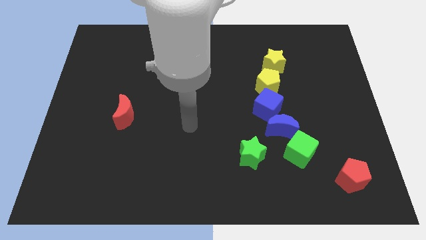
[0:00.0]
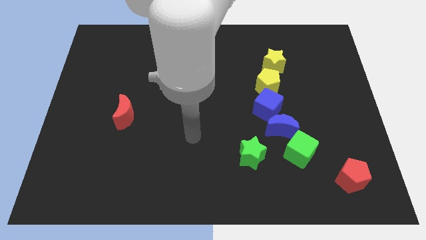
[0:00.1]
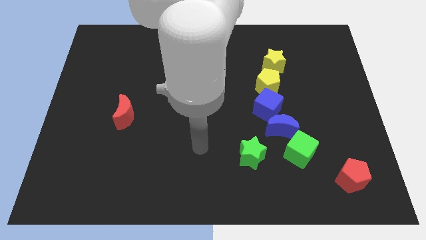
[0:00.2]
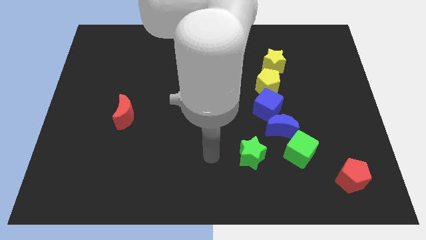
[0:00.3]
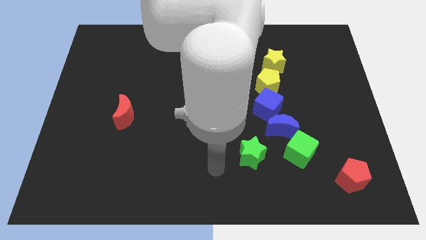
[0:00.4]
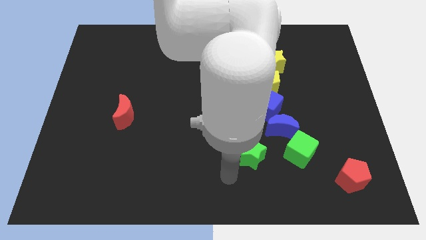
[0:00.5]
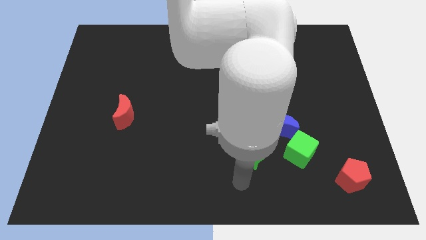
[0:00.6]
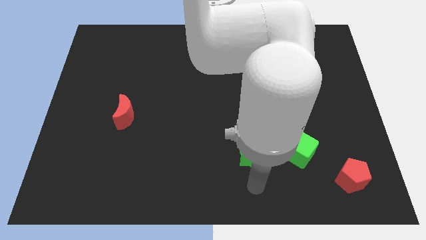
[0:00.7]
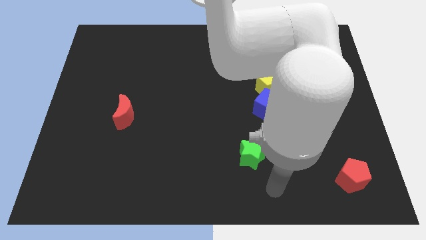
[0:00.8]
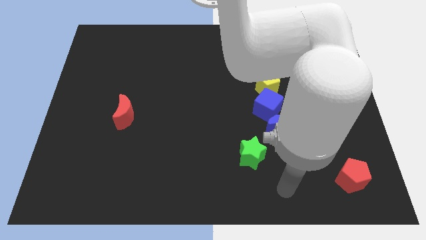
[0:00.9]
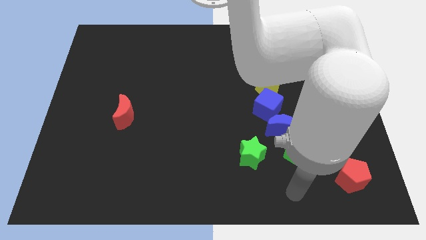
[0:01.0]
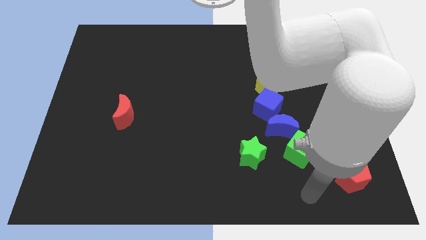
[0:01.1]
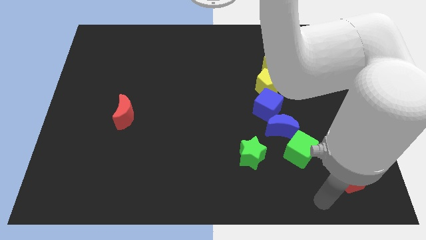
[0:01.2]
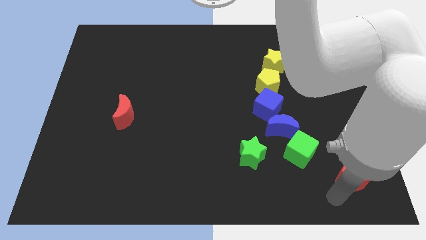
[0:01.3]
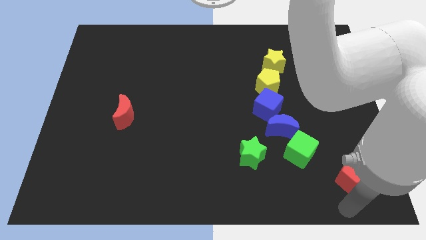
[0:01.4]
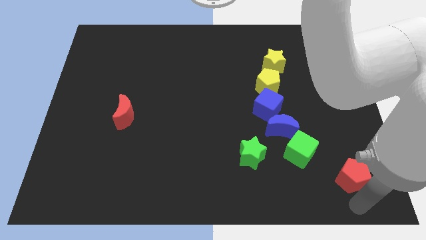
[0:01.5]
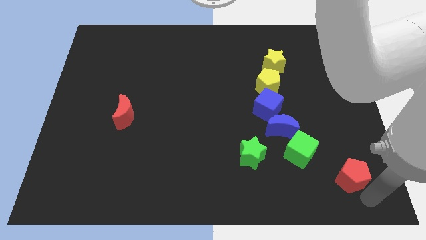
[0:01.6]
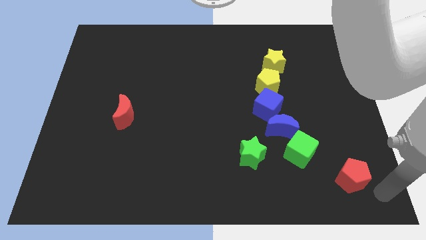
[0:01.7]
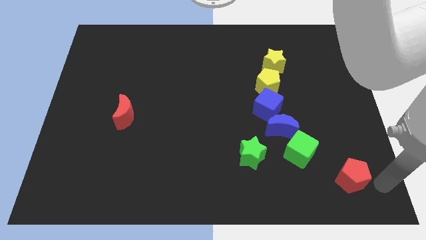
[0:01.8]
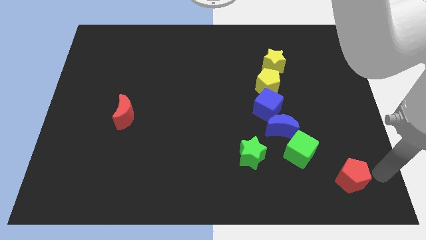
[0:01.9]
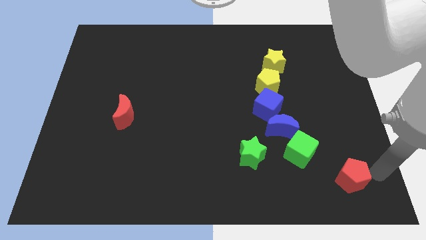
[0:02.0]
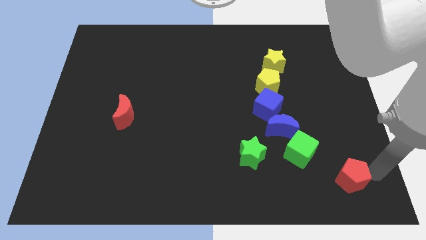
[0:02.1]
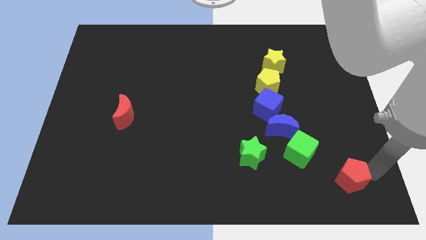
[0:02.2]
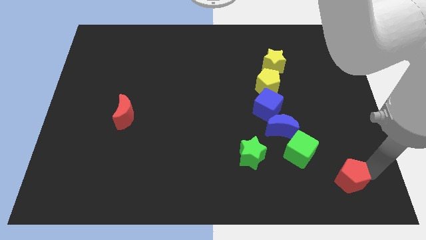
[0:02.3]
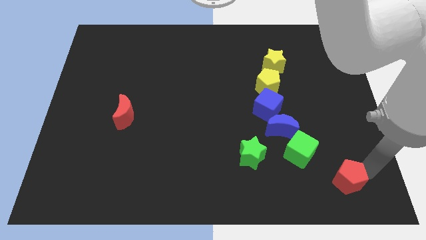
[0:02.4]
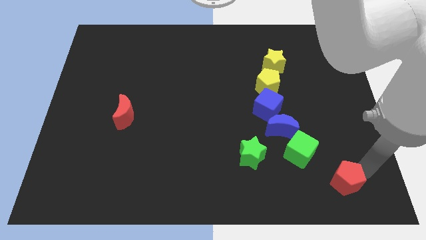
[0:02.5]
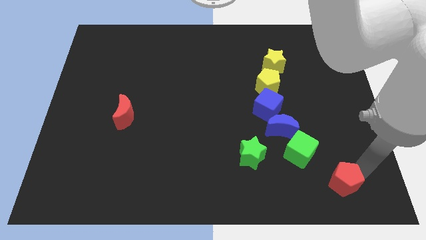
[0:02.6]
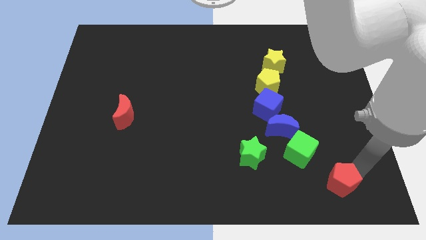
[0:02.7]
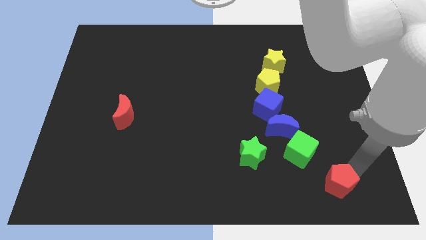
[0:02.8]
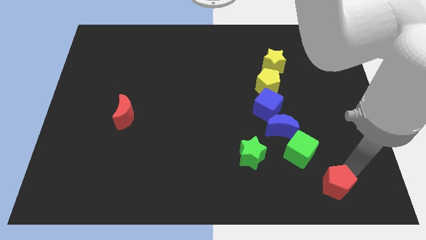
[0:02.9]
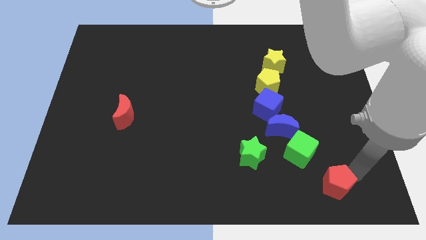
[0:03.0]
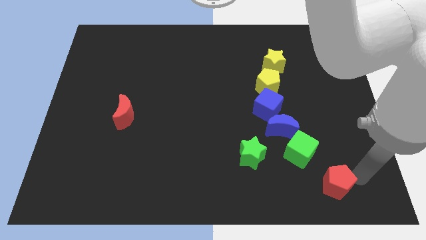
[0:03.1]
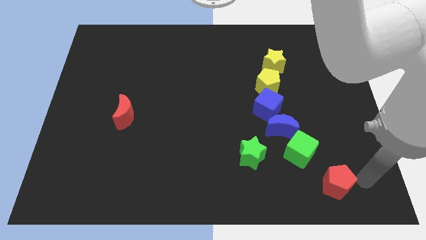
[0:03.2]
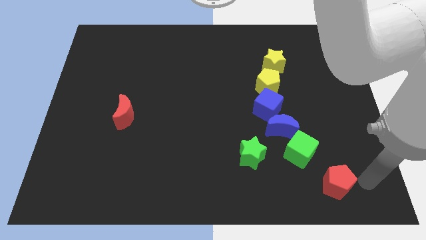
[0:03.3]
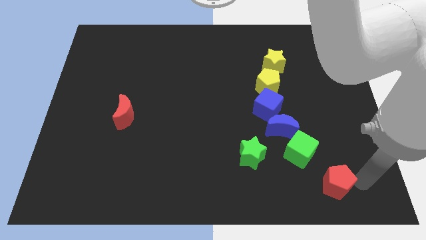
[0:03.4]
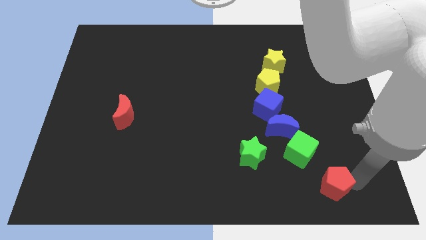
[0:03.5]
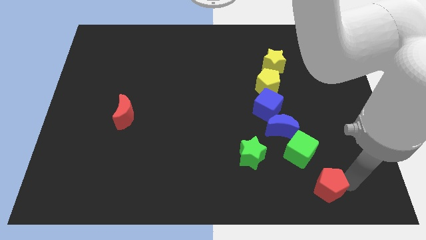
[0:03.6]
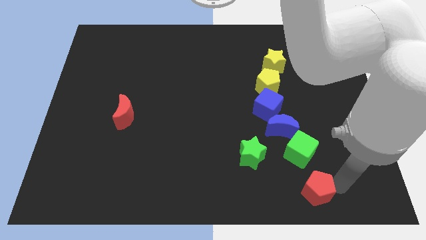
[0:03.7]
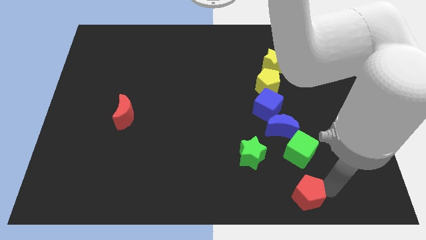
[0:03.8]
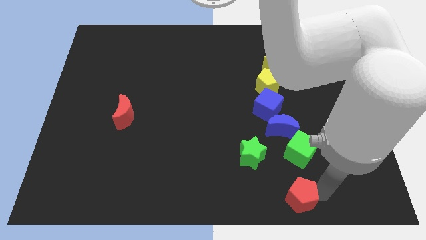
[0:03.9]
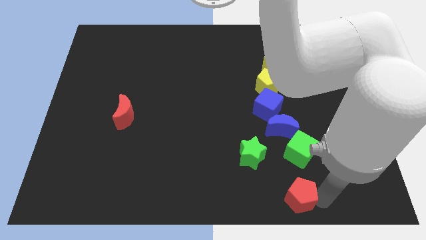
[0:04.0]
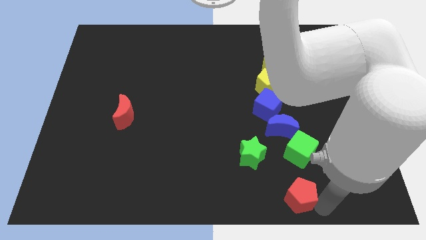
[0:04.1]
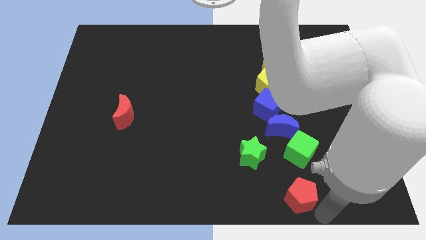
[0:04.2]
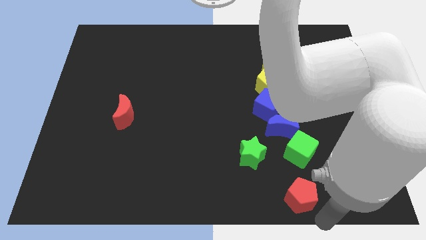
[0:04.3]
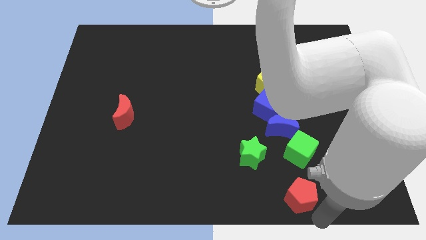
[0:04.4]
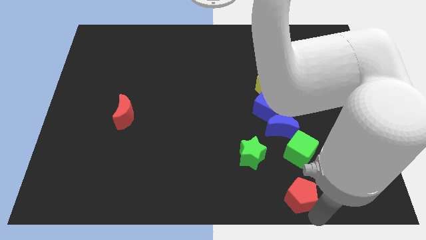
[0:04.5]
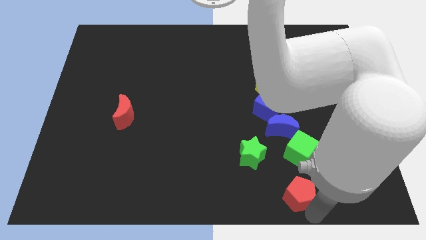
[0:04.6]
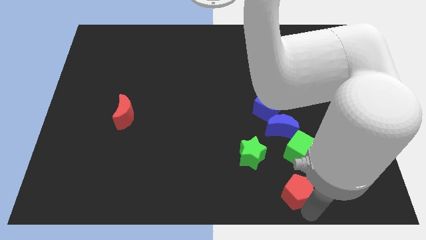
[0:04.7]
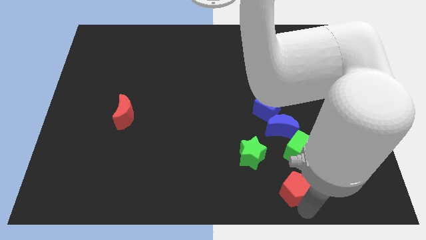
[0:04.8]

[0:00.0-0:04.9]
move the red pentagon to the bottom left of the green cube

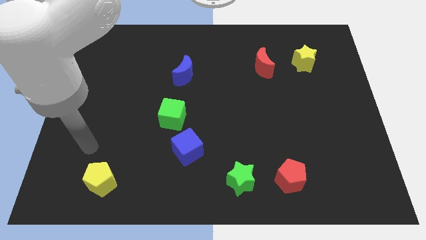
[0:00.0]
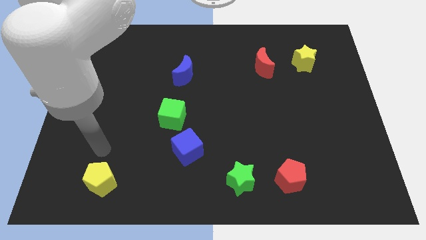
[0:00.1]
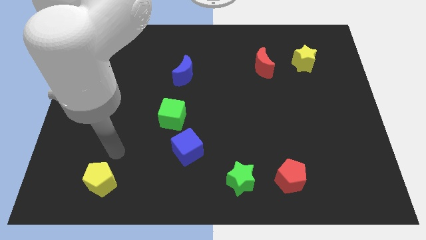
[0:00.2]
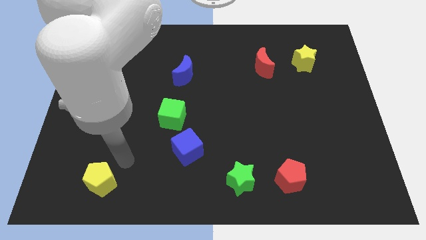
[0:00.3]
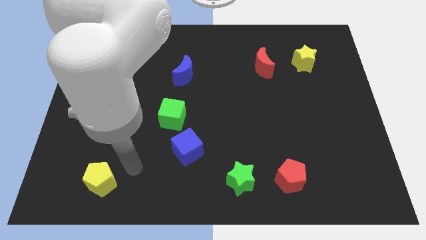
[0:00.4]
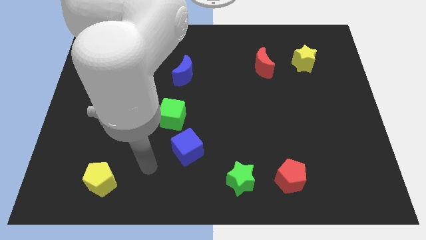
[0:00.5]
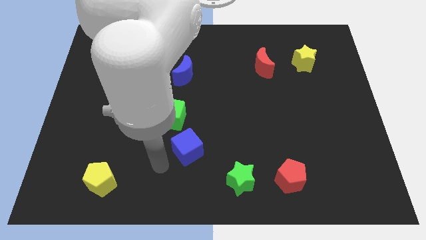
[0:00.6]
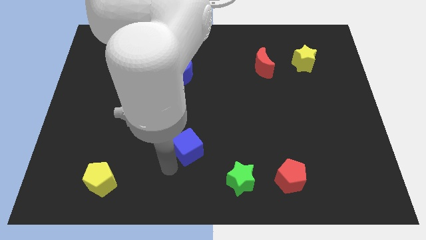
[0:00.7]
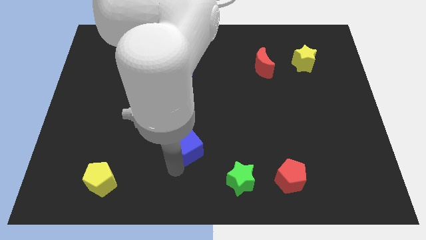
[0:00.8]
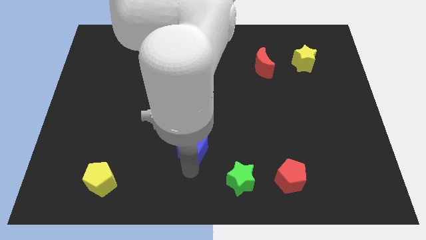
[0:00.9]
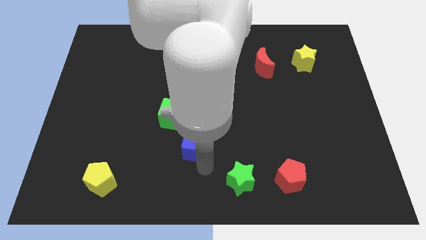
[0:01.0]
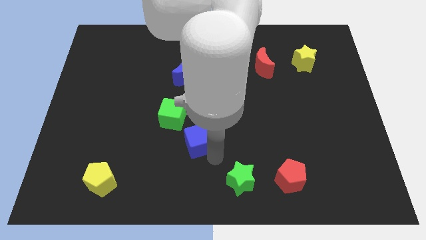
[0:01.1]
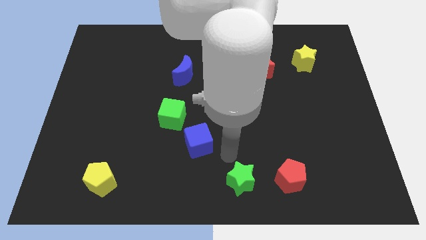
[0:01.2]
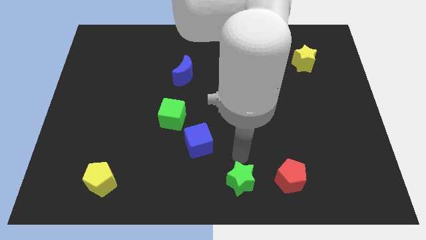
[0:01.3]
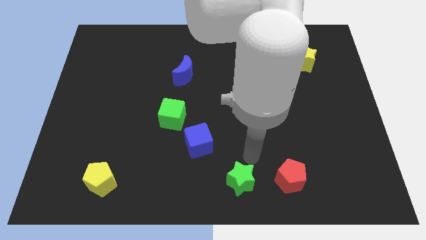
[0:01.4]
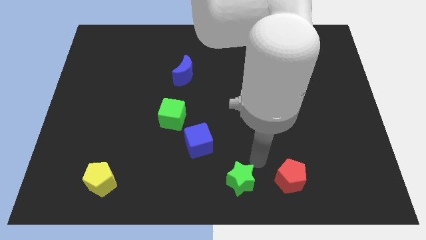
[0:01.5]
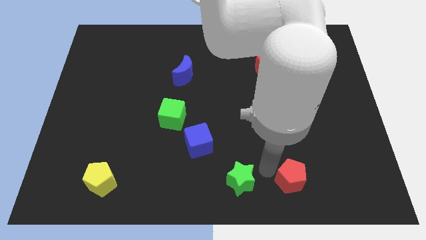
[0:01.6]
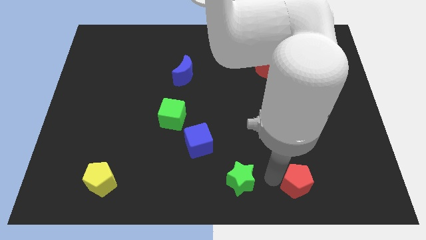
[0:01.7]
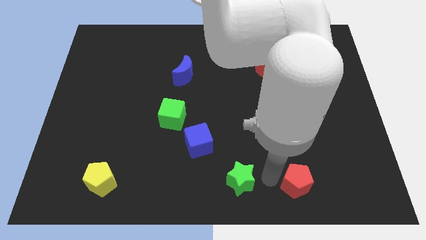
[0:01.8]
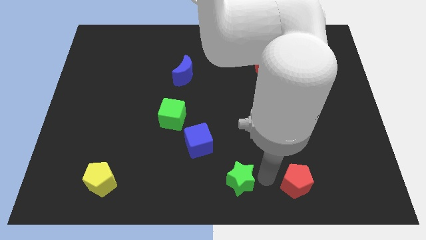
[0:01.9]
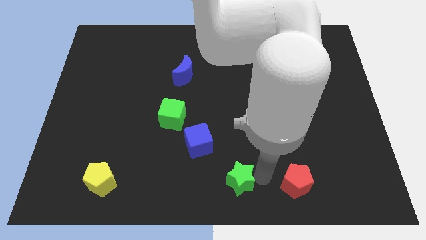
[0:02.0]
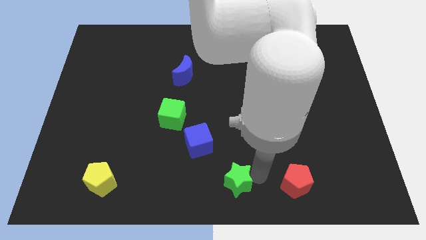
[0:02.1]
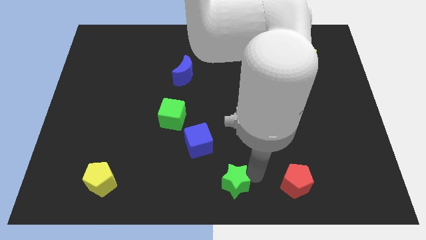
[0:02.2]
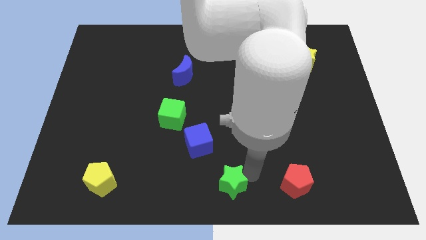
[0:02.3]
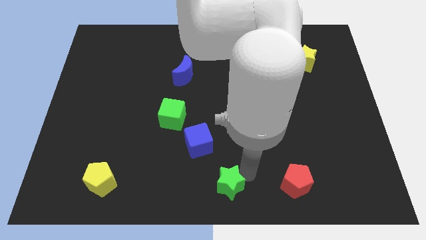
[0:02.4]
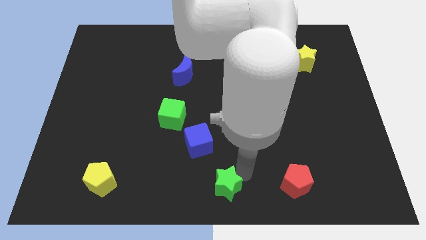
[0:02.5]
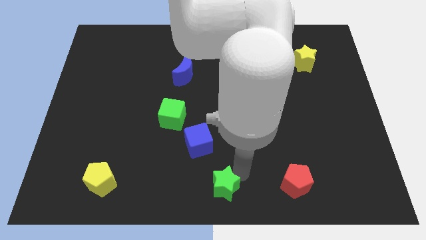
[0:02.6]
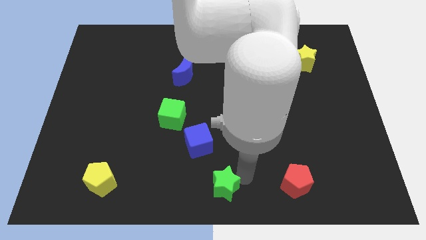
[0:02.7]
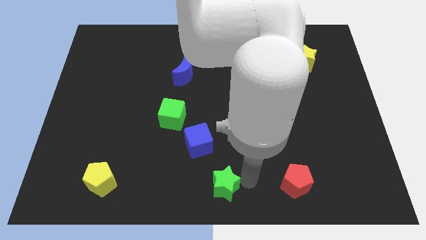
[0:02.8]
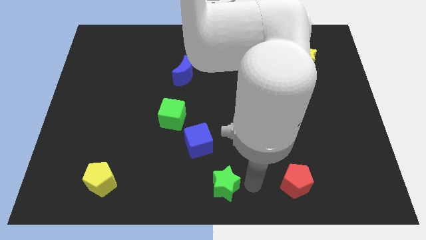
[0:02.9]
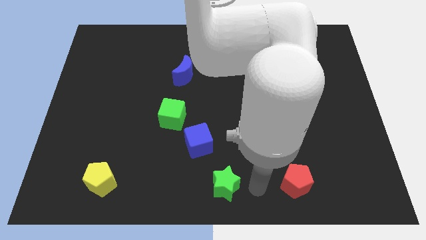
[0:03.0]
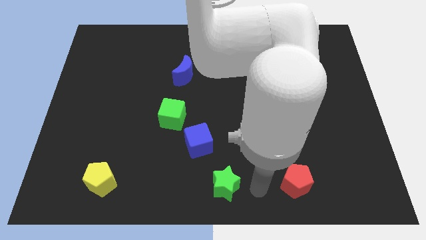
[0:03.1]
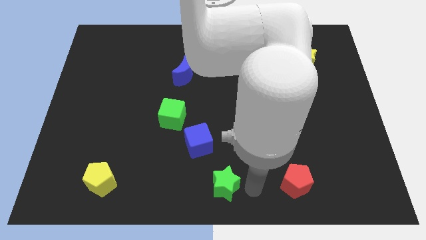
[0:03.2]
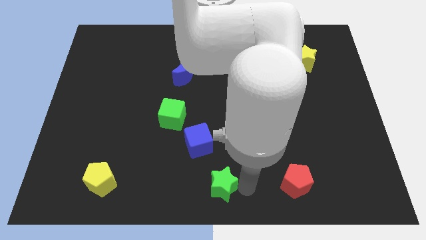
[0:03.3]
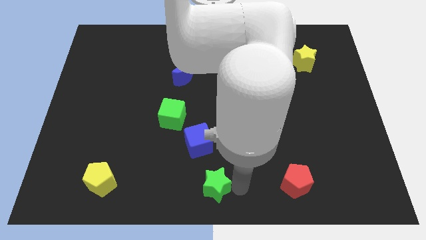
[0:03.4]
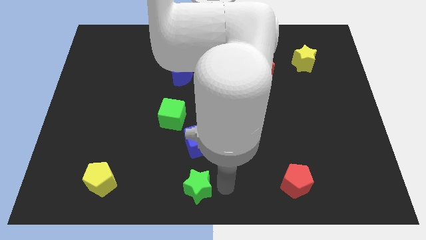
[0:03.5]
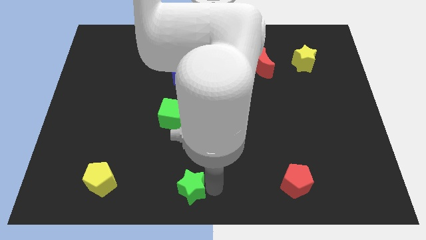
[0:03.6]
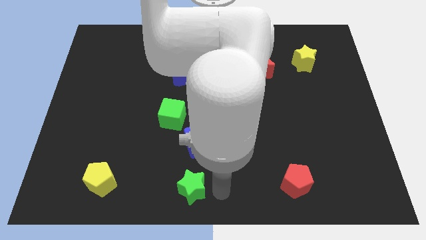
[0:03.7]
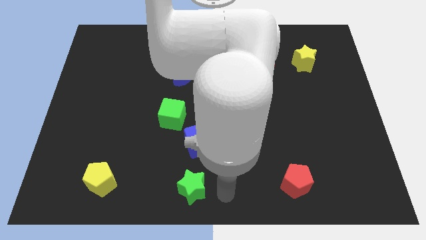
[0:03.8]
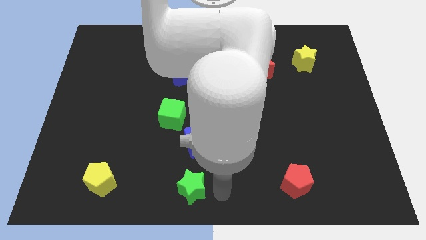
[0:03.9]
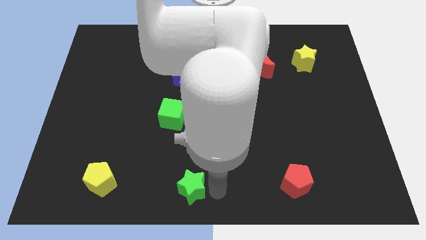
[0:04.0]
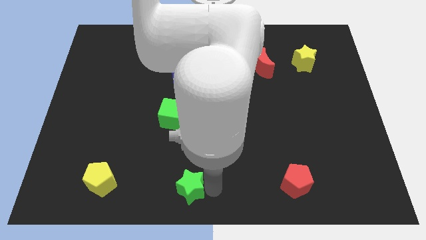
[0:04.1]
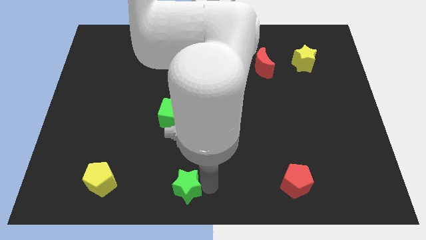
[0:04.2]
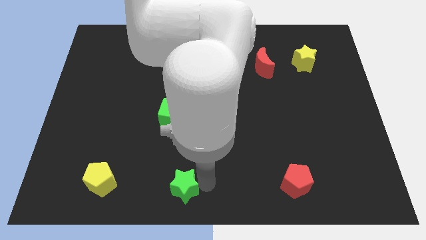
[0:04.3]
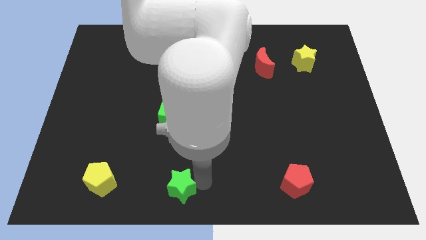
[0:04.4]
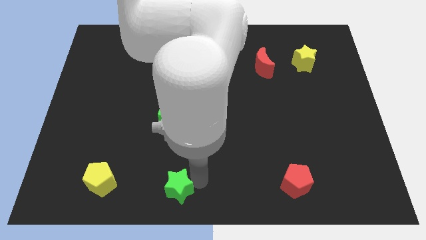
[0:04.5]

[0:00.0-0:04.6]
slide the green star to the right of the yellow pentagon
